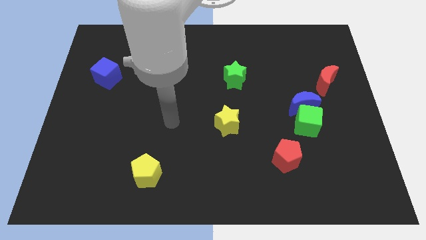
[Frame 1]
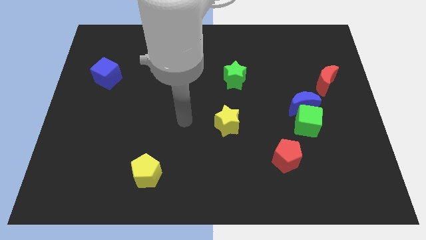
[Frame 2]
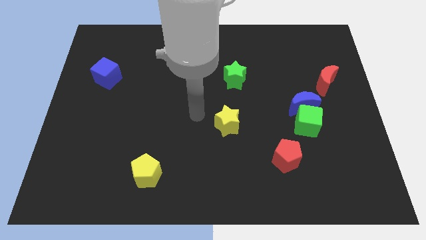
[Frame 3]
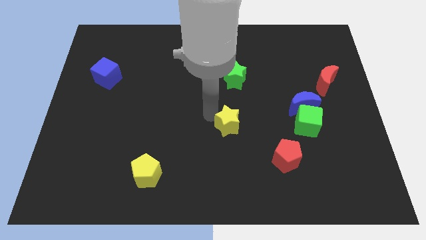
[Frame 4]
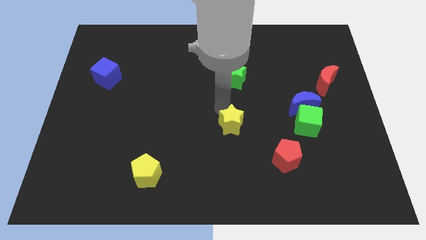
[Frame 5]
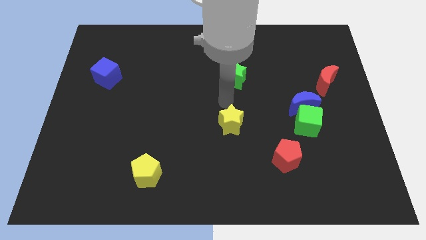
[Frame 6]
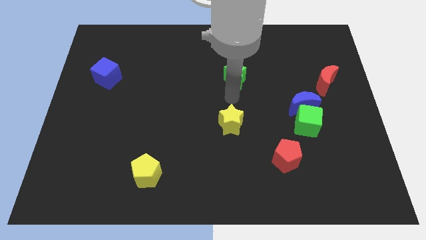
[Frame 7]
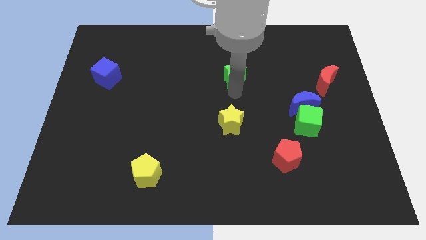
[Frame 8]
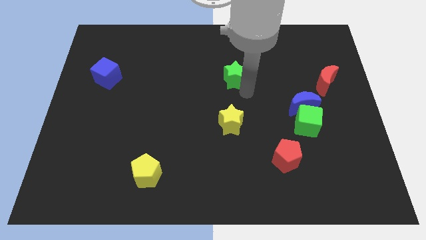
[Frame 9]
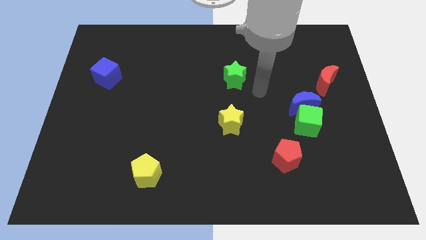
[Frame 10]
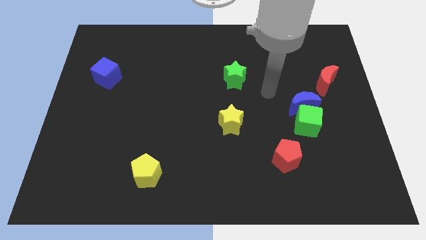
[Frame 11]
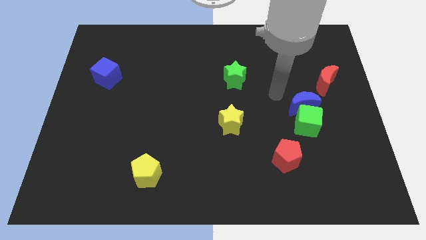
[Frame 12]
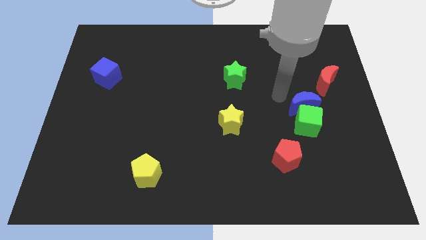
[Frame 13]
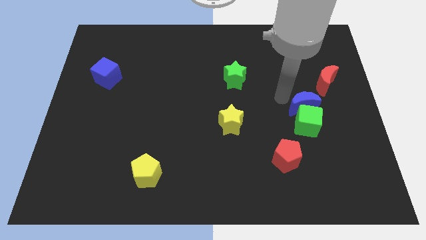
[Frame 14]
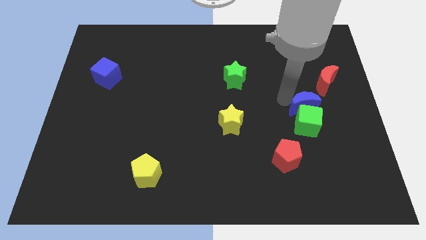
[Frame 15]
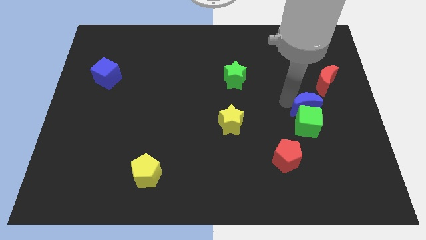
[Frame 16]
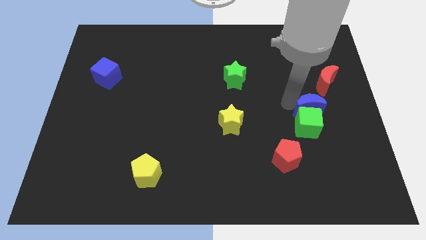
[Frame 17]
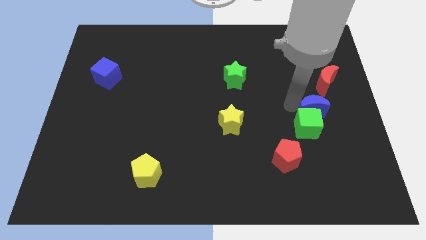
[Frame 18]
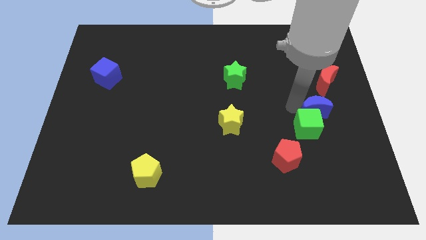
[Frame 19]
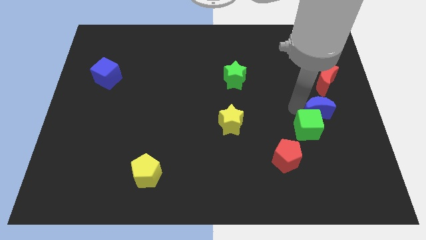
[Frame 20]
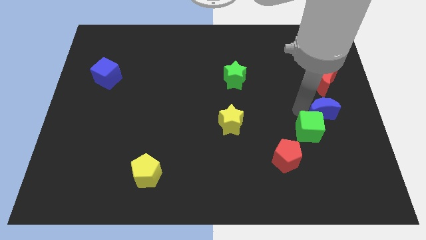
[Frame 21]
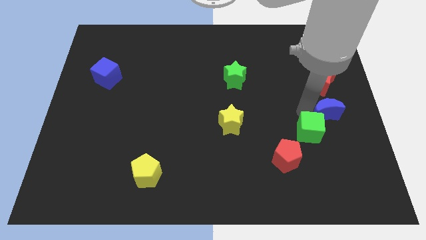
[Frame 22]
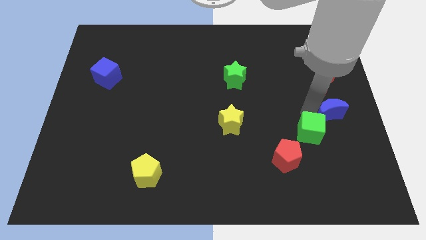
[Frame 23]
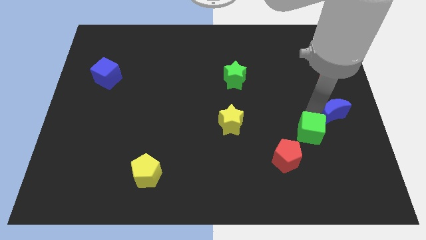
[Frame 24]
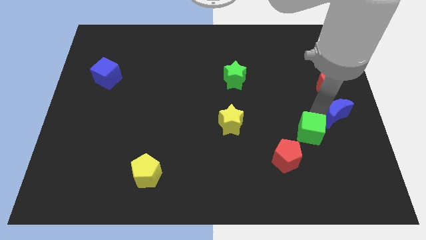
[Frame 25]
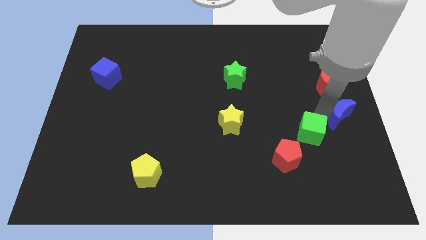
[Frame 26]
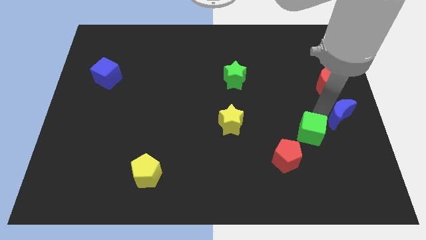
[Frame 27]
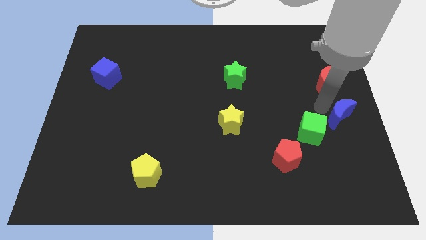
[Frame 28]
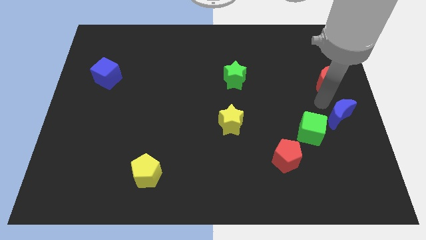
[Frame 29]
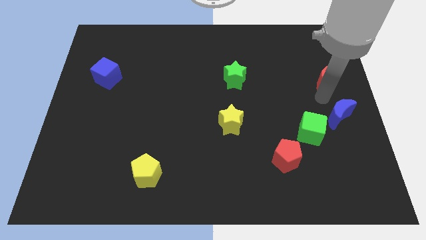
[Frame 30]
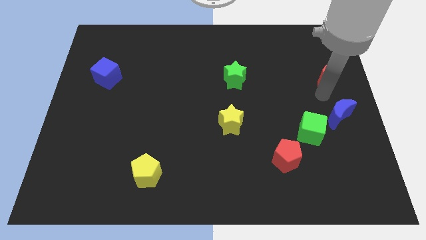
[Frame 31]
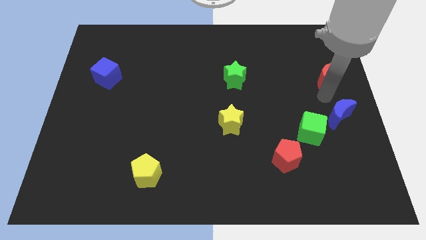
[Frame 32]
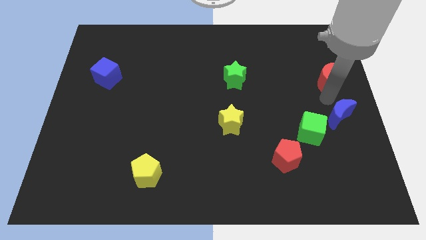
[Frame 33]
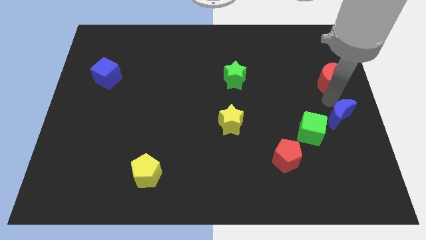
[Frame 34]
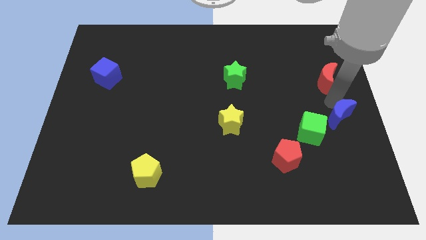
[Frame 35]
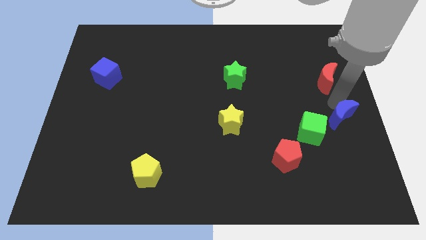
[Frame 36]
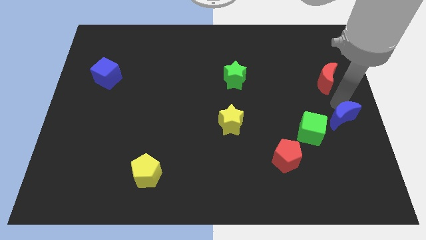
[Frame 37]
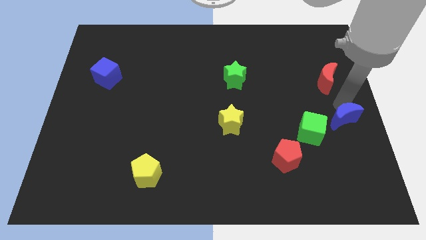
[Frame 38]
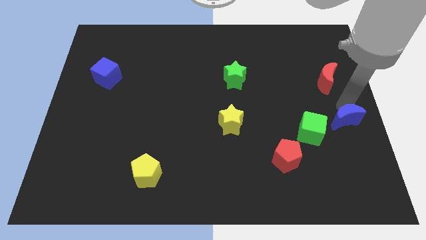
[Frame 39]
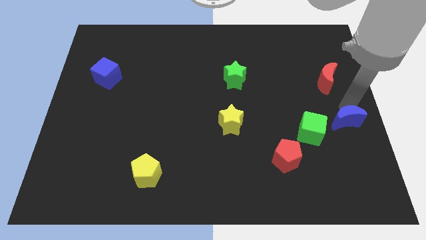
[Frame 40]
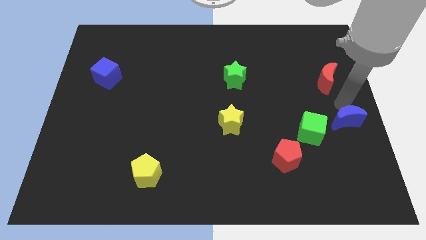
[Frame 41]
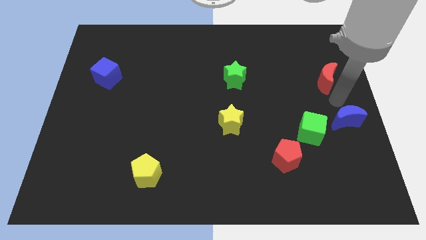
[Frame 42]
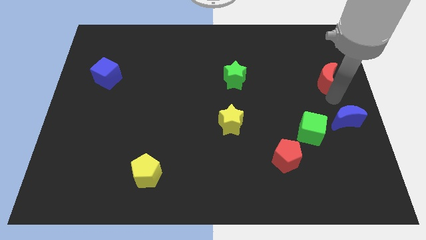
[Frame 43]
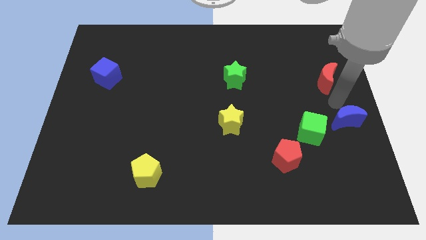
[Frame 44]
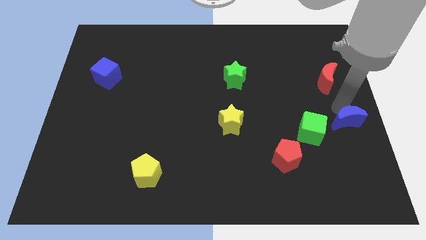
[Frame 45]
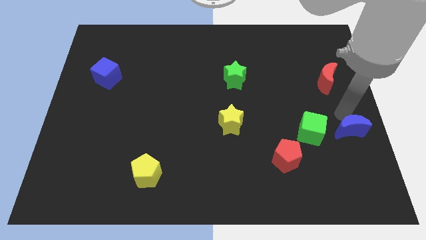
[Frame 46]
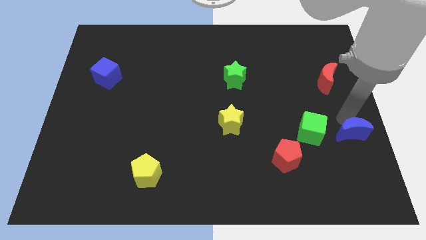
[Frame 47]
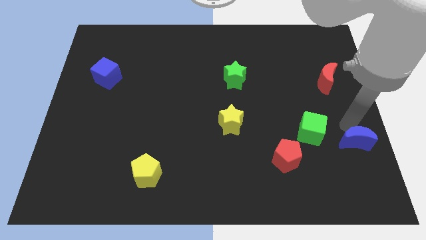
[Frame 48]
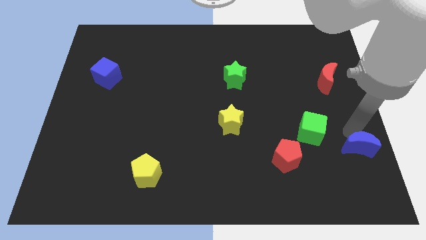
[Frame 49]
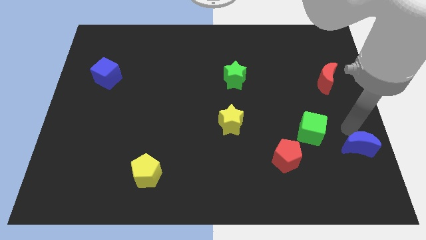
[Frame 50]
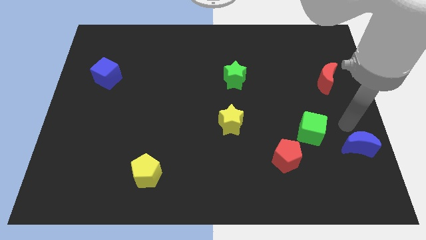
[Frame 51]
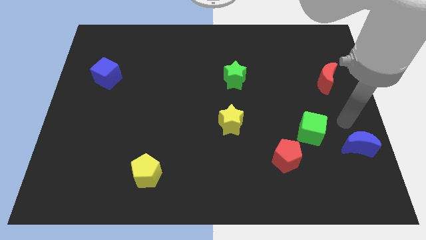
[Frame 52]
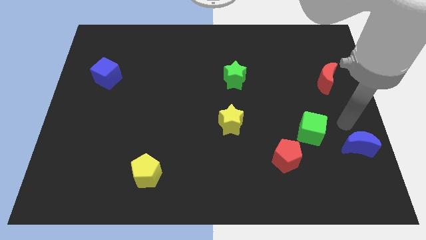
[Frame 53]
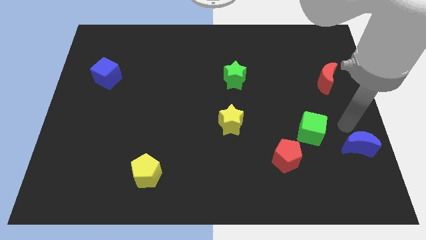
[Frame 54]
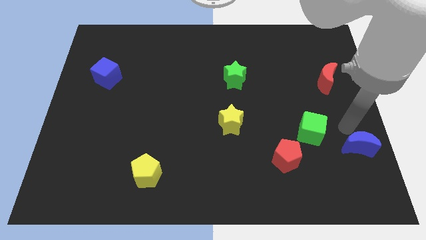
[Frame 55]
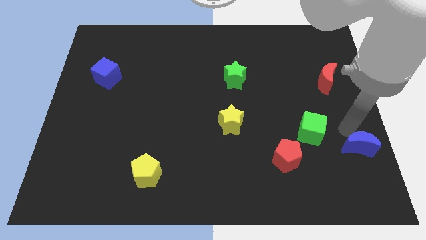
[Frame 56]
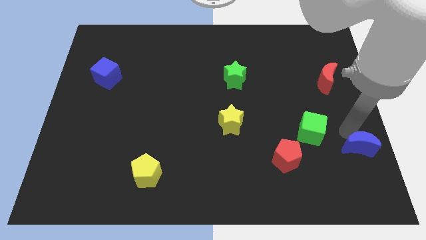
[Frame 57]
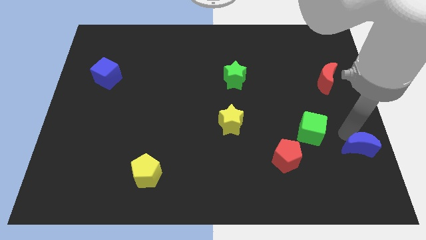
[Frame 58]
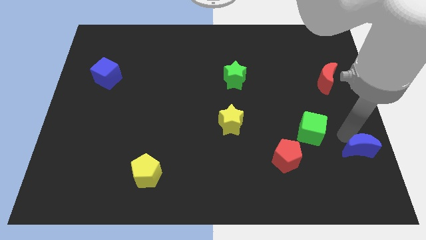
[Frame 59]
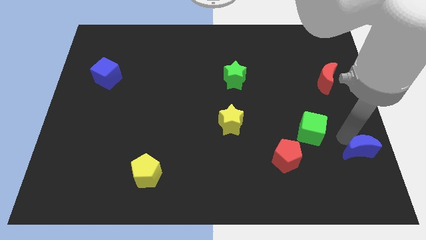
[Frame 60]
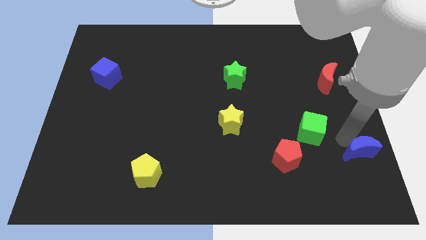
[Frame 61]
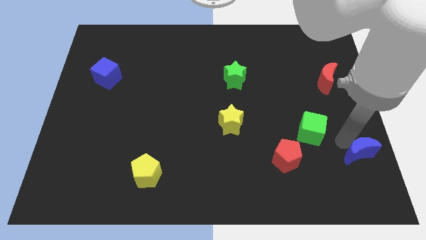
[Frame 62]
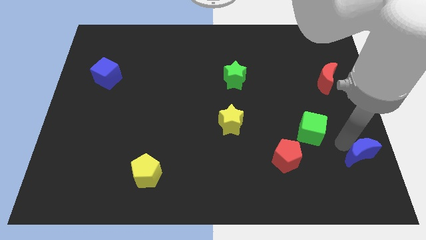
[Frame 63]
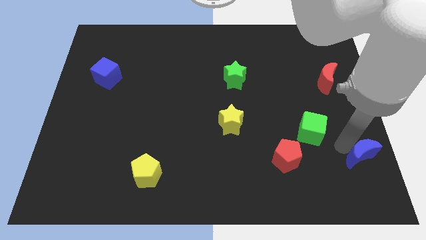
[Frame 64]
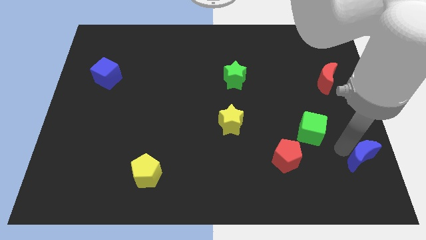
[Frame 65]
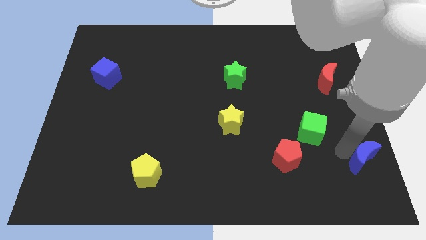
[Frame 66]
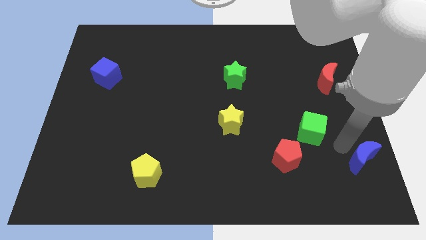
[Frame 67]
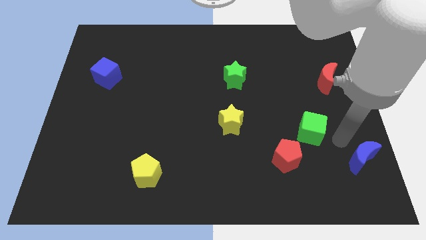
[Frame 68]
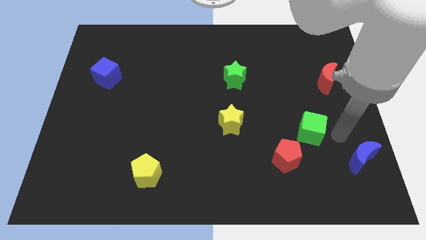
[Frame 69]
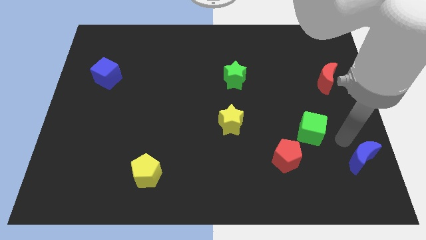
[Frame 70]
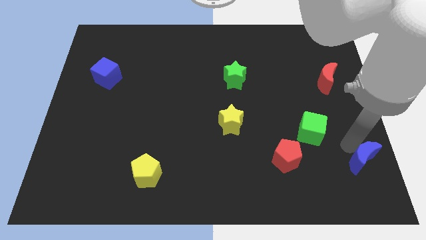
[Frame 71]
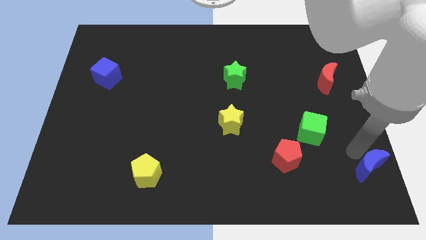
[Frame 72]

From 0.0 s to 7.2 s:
move the blue moon to the lower right corner
